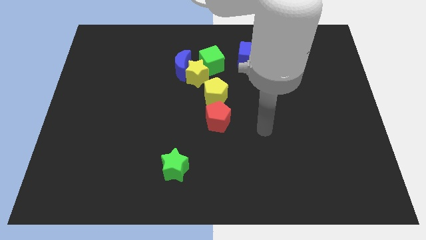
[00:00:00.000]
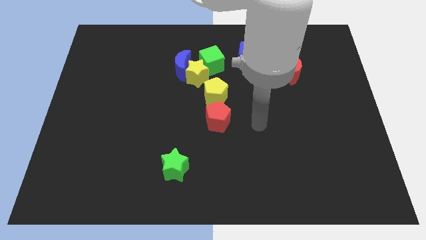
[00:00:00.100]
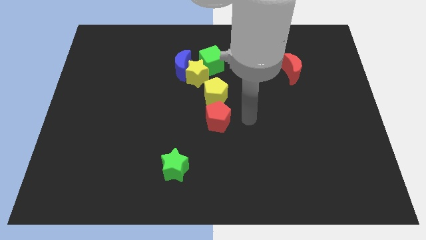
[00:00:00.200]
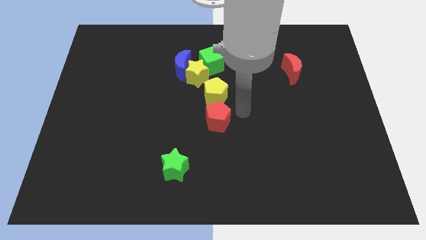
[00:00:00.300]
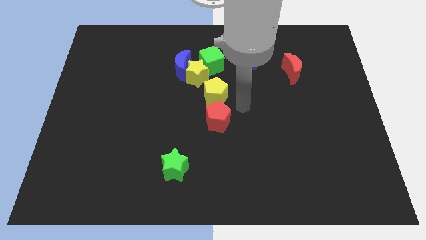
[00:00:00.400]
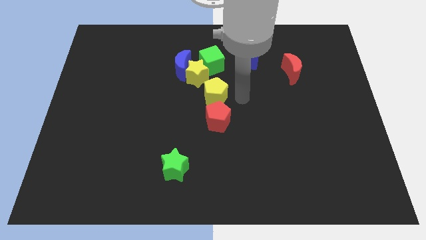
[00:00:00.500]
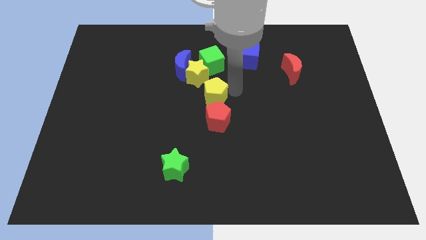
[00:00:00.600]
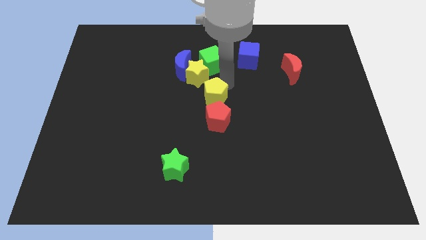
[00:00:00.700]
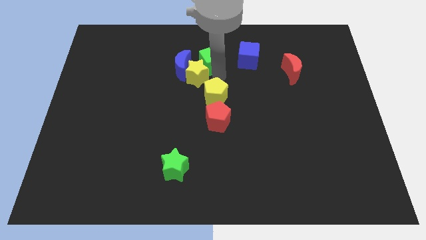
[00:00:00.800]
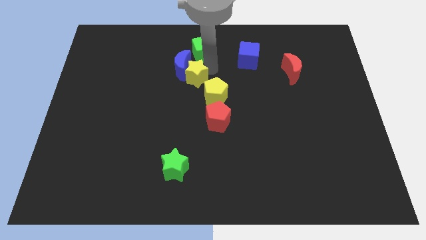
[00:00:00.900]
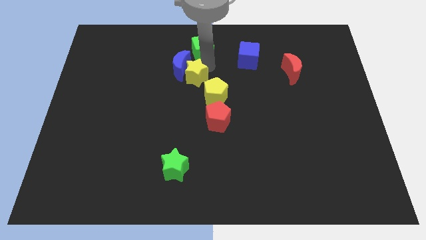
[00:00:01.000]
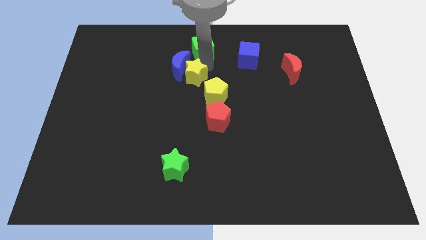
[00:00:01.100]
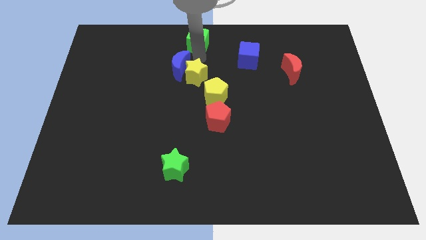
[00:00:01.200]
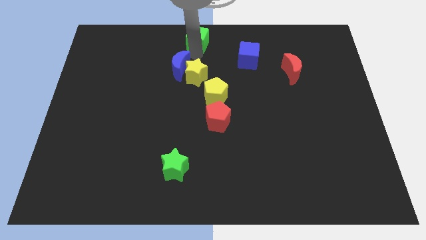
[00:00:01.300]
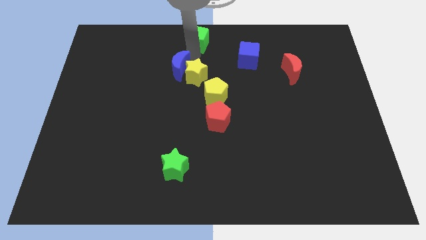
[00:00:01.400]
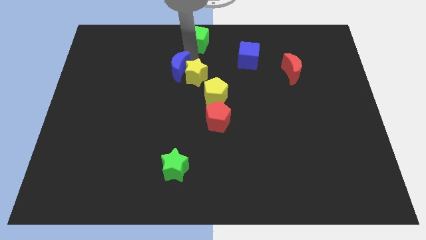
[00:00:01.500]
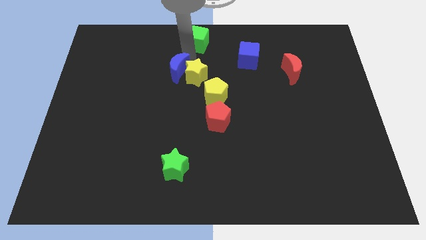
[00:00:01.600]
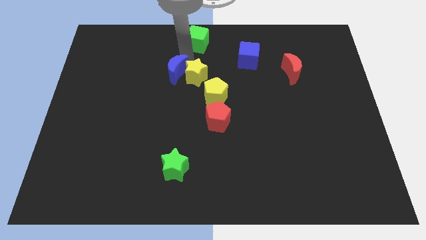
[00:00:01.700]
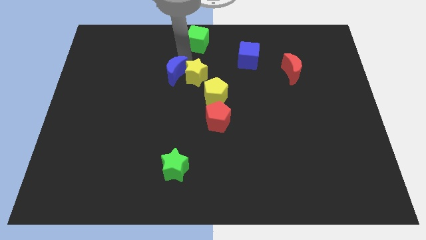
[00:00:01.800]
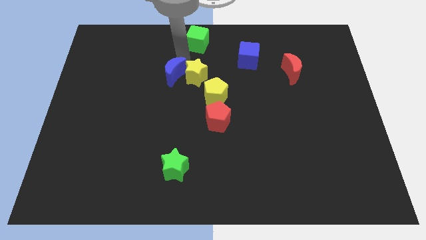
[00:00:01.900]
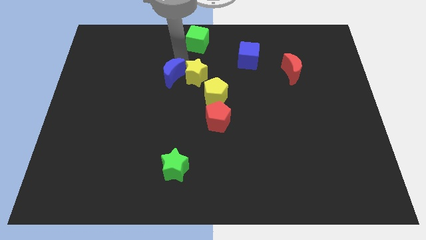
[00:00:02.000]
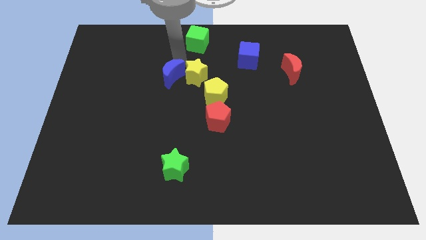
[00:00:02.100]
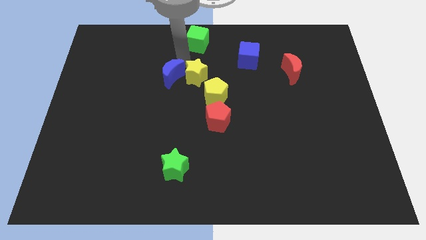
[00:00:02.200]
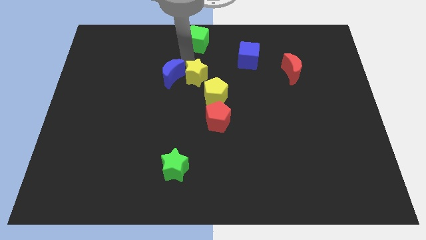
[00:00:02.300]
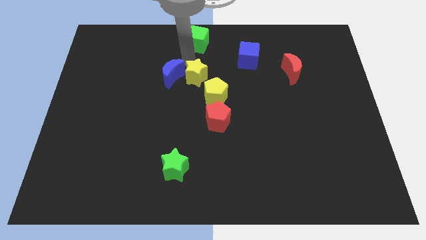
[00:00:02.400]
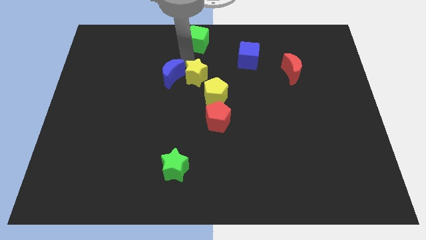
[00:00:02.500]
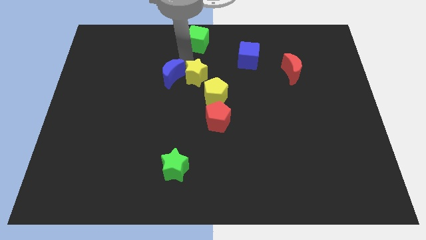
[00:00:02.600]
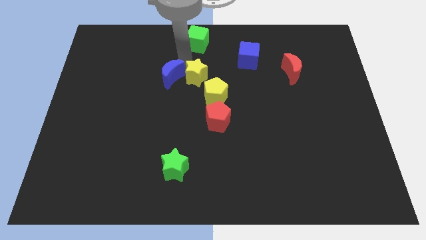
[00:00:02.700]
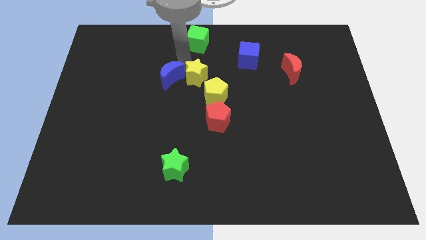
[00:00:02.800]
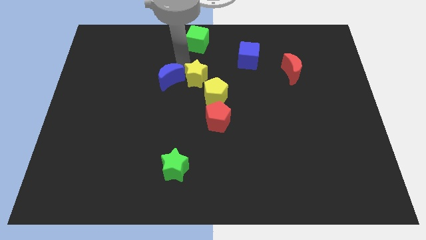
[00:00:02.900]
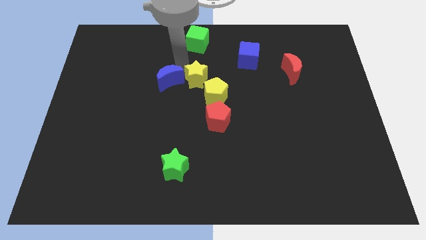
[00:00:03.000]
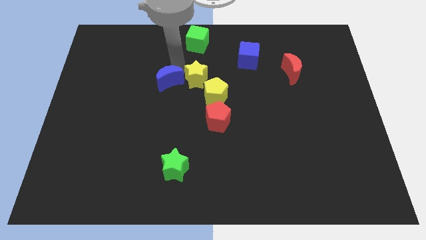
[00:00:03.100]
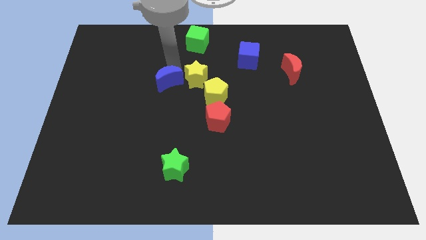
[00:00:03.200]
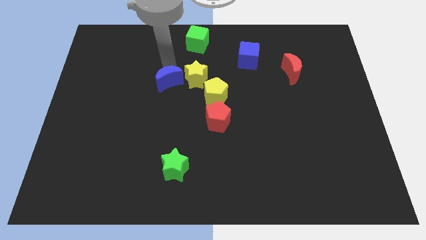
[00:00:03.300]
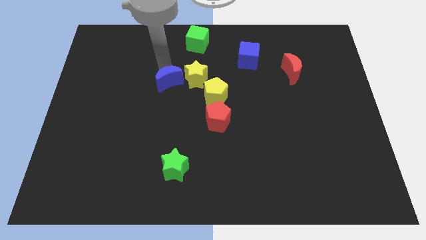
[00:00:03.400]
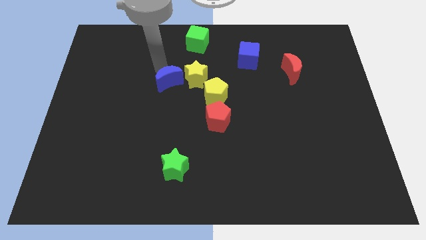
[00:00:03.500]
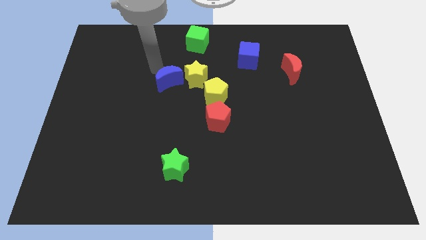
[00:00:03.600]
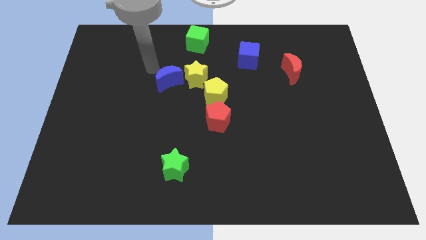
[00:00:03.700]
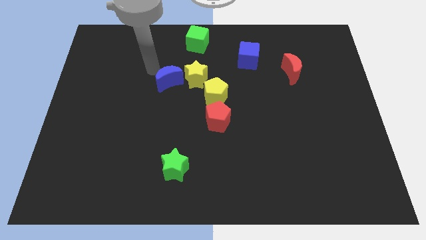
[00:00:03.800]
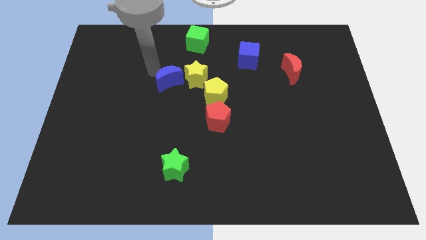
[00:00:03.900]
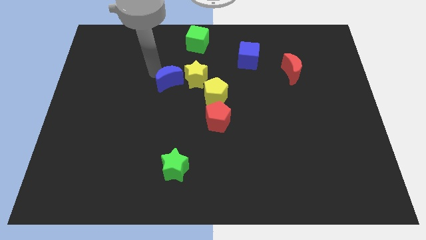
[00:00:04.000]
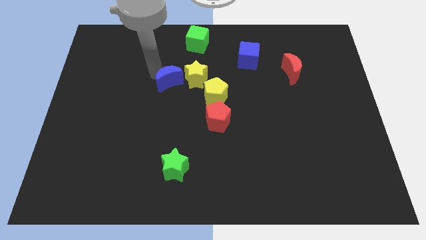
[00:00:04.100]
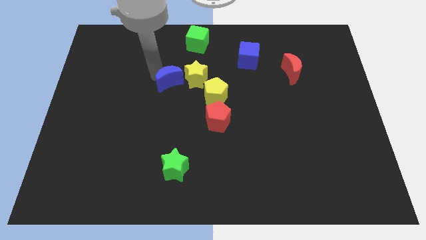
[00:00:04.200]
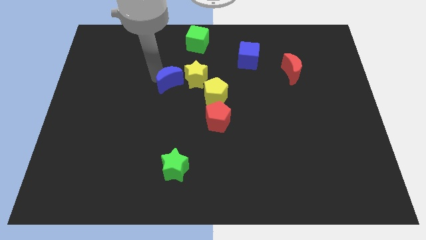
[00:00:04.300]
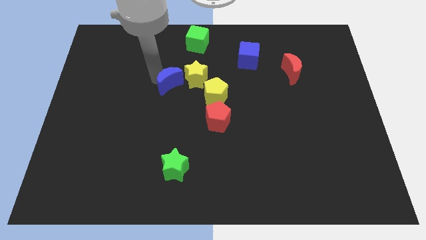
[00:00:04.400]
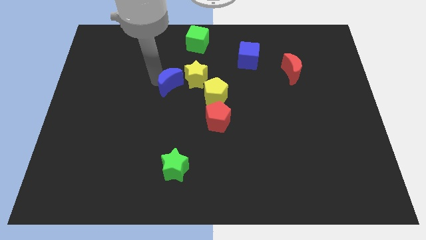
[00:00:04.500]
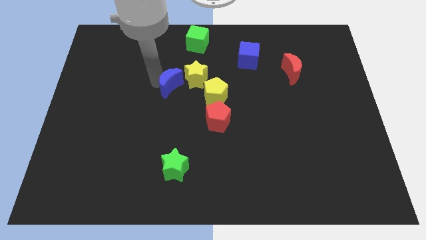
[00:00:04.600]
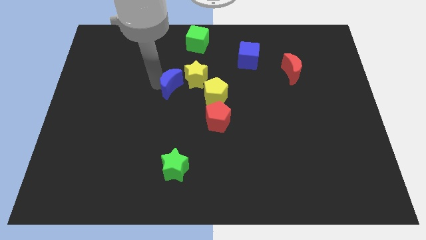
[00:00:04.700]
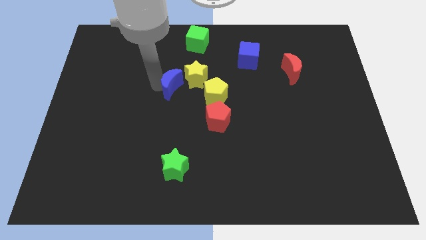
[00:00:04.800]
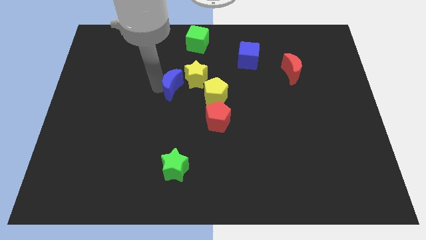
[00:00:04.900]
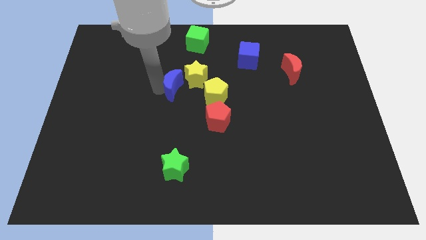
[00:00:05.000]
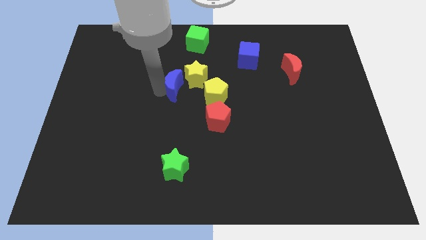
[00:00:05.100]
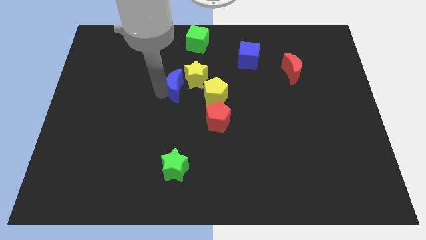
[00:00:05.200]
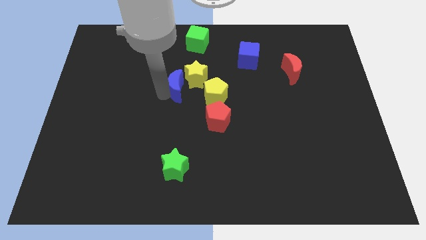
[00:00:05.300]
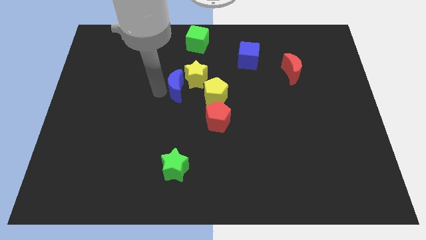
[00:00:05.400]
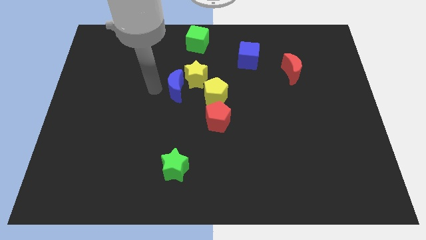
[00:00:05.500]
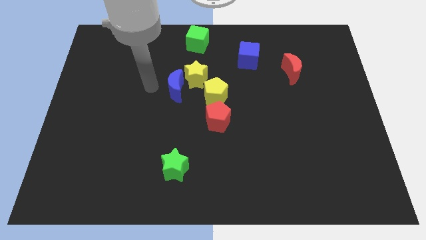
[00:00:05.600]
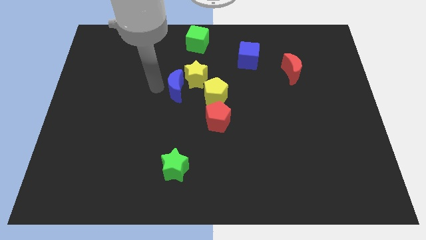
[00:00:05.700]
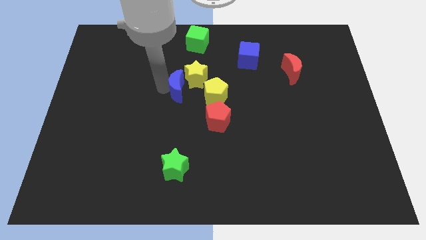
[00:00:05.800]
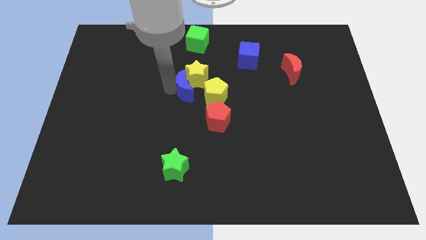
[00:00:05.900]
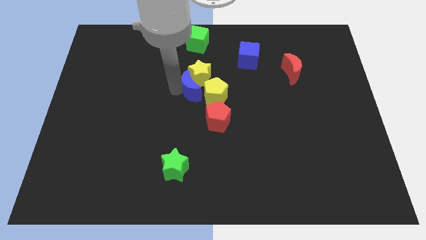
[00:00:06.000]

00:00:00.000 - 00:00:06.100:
slide the blue moon close to the yellow pentagon

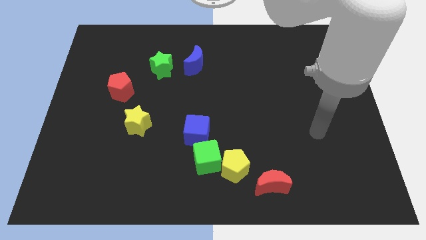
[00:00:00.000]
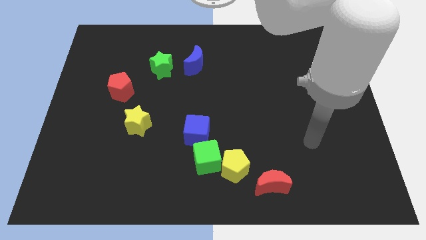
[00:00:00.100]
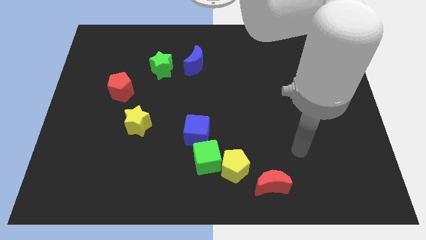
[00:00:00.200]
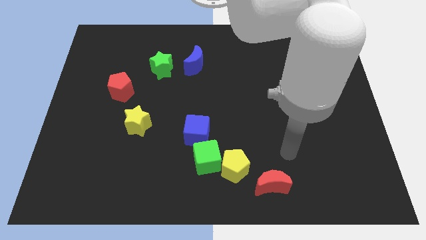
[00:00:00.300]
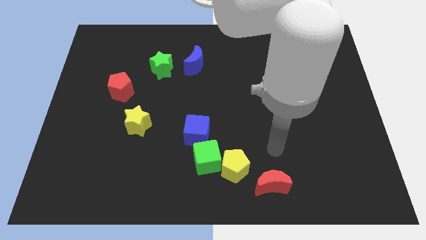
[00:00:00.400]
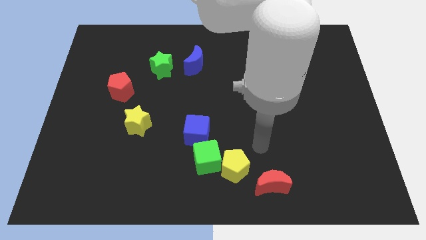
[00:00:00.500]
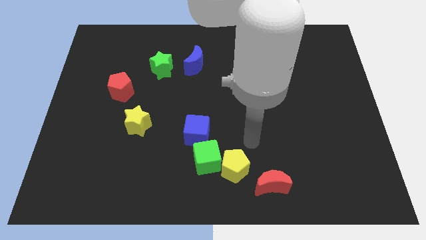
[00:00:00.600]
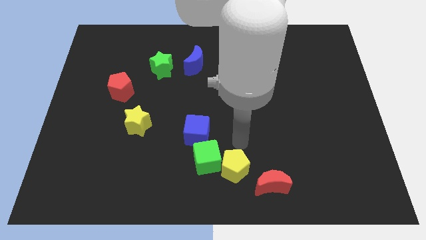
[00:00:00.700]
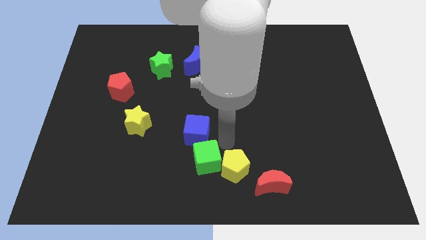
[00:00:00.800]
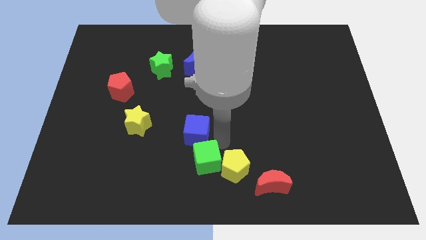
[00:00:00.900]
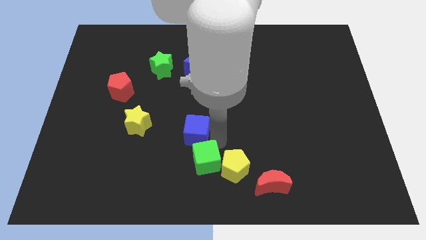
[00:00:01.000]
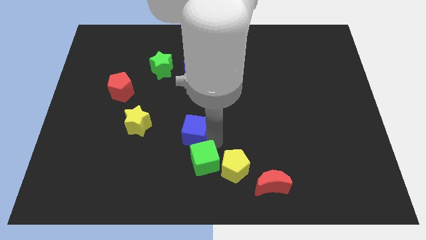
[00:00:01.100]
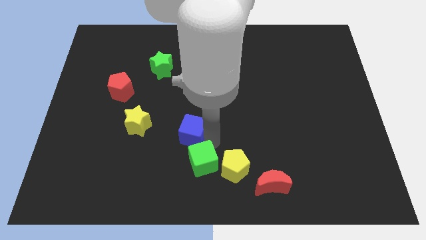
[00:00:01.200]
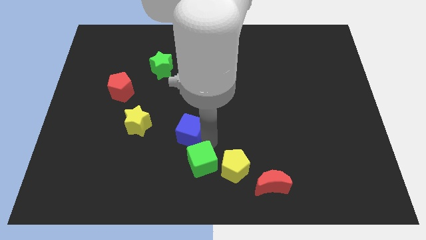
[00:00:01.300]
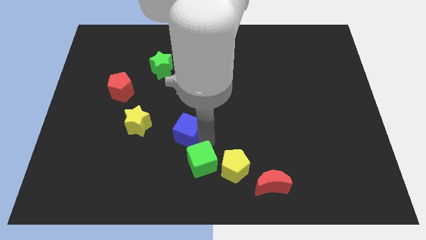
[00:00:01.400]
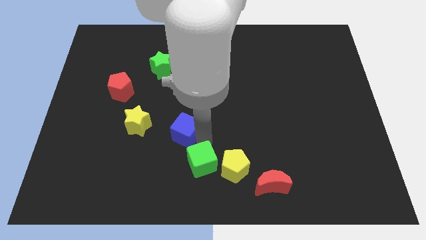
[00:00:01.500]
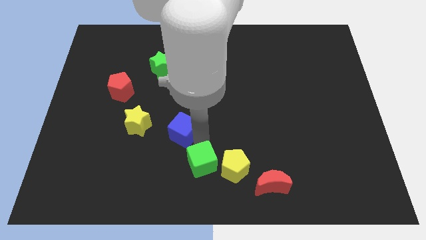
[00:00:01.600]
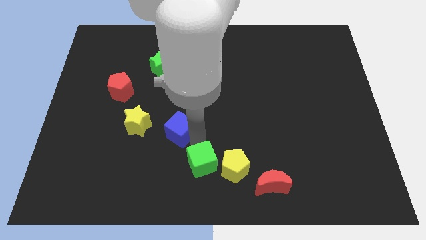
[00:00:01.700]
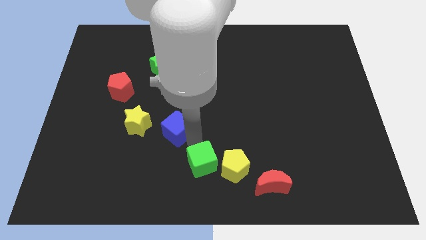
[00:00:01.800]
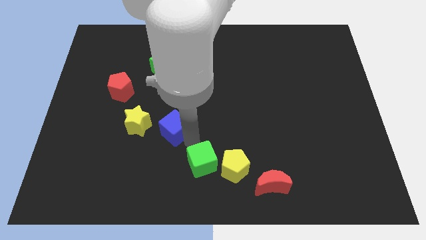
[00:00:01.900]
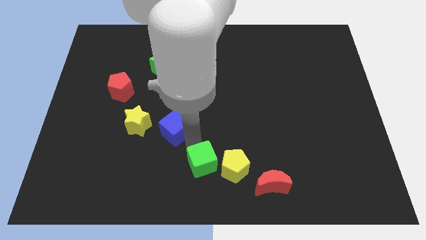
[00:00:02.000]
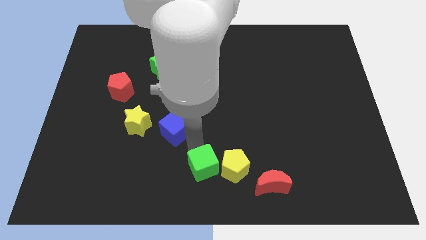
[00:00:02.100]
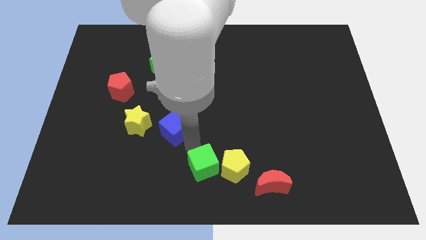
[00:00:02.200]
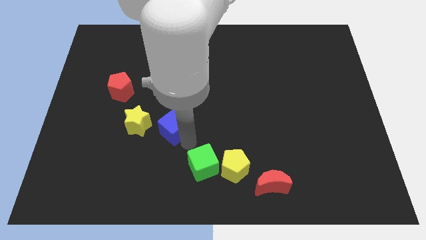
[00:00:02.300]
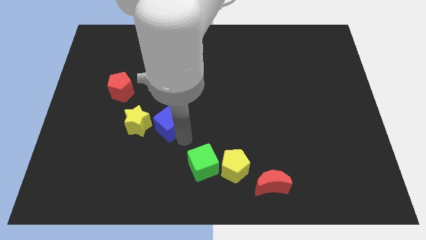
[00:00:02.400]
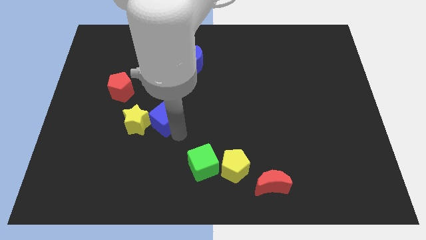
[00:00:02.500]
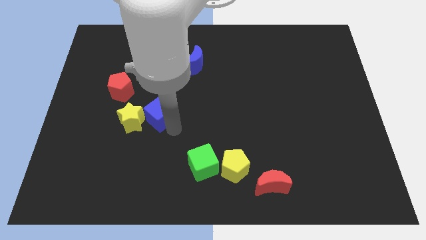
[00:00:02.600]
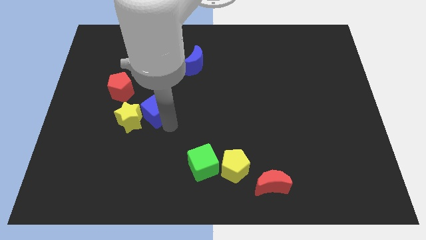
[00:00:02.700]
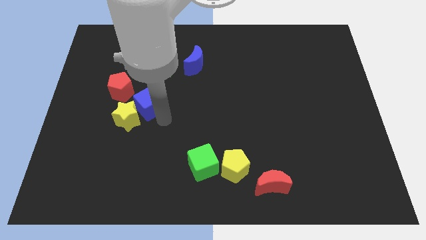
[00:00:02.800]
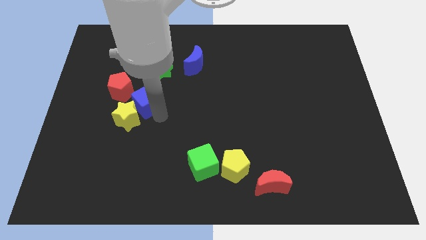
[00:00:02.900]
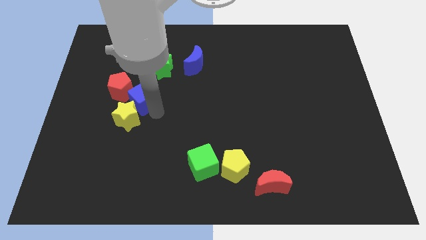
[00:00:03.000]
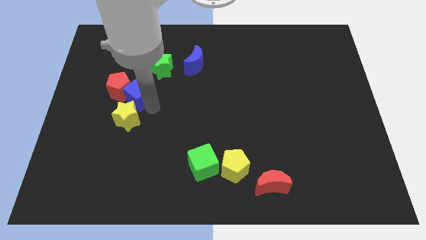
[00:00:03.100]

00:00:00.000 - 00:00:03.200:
put the blue cube close to the red pentagon
